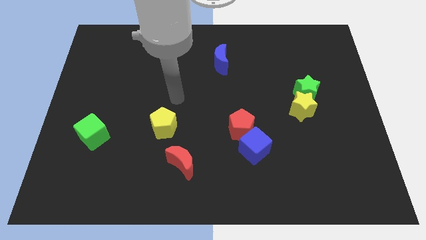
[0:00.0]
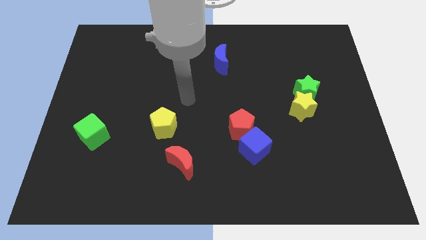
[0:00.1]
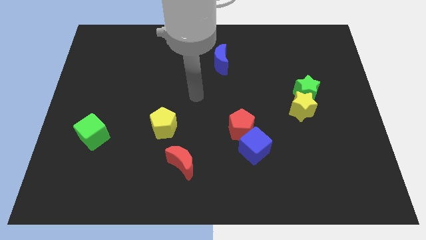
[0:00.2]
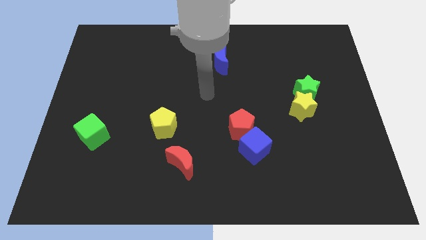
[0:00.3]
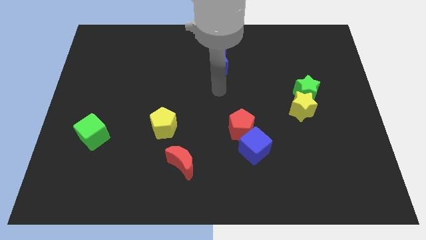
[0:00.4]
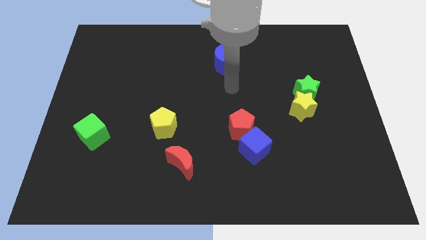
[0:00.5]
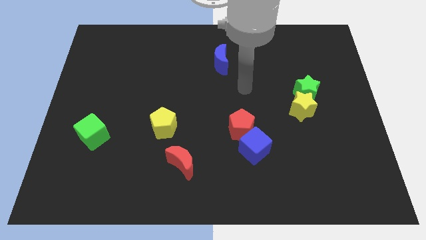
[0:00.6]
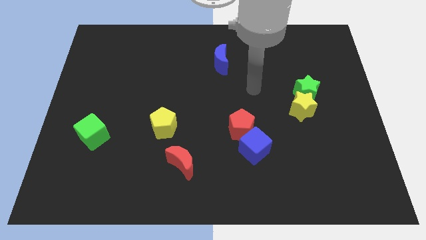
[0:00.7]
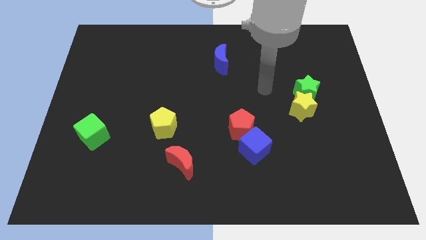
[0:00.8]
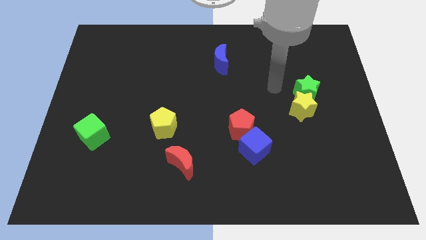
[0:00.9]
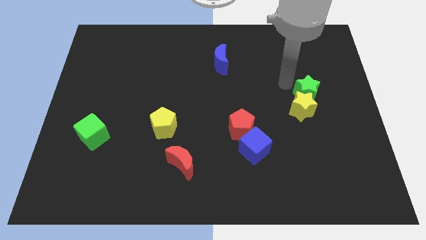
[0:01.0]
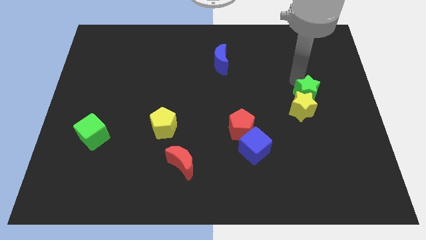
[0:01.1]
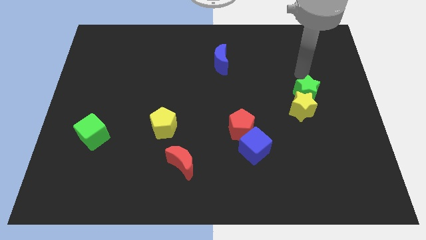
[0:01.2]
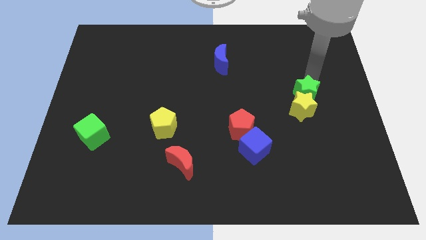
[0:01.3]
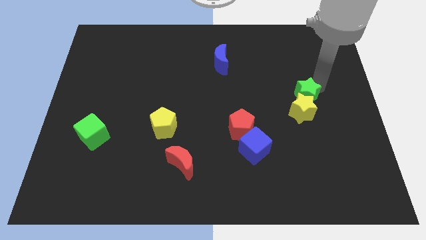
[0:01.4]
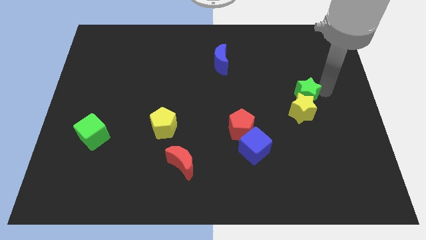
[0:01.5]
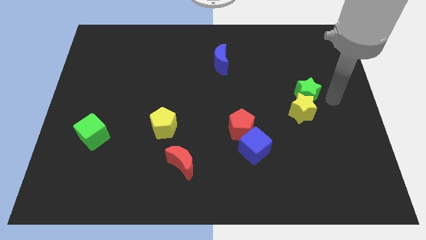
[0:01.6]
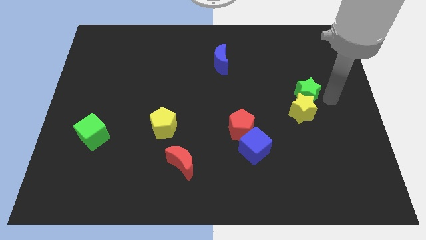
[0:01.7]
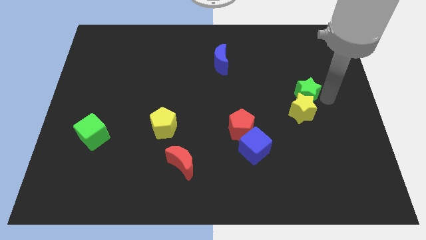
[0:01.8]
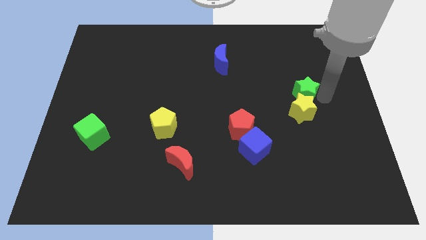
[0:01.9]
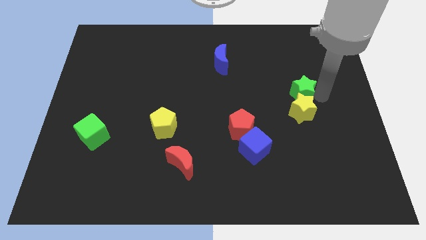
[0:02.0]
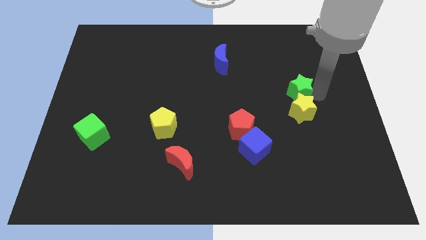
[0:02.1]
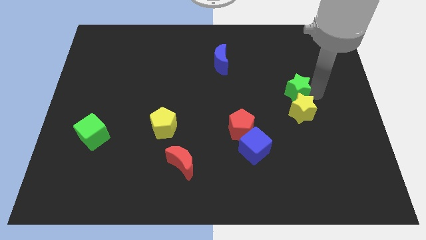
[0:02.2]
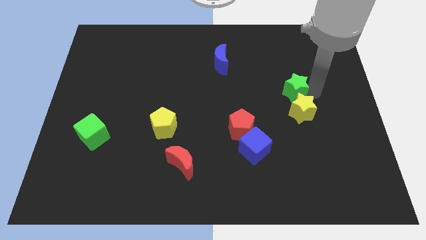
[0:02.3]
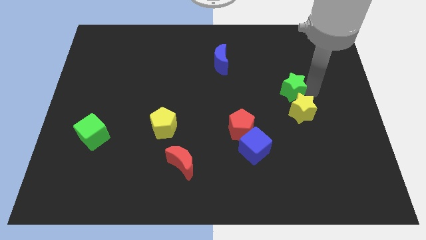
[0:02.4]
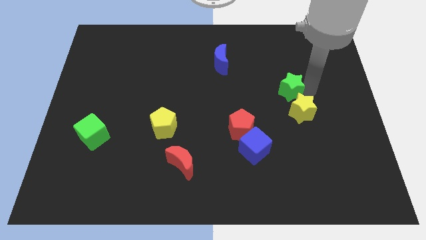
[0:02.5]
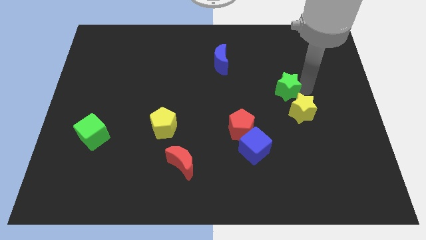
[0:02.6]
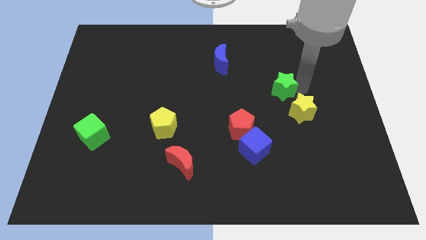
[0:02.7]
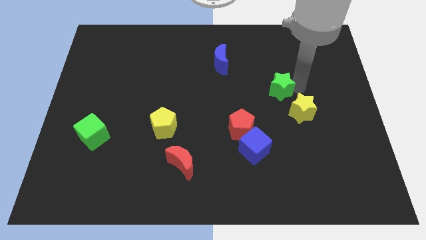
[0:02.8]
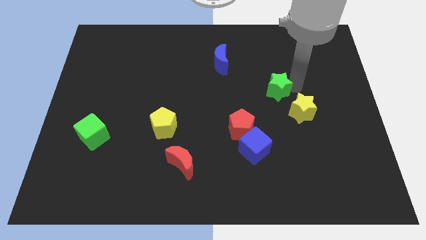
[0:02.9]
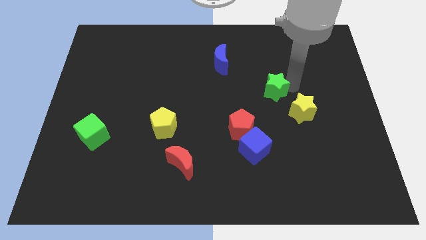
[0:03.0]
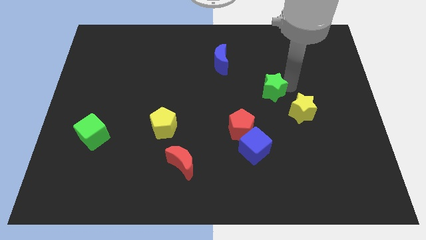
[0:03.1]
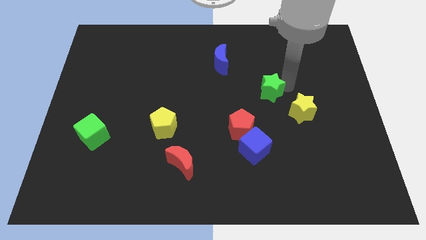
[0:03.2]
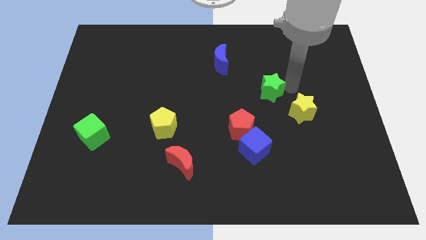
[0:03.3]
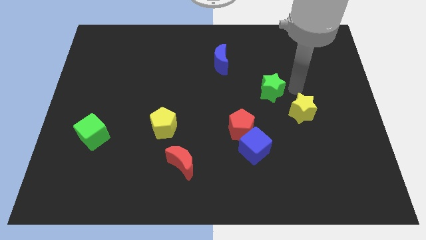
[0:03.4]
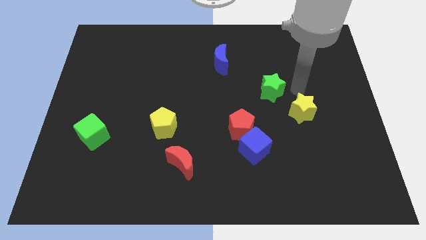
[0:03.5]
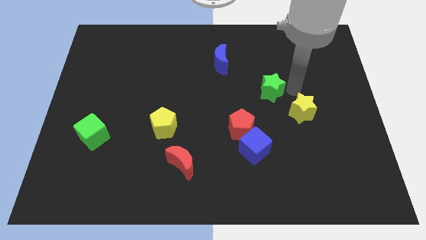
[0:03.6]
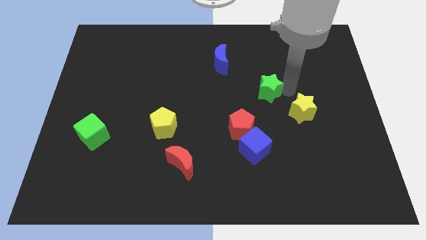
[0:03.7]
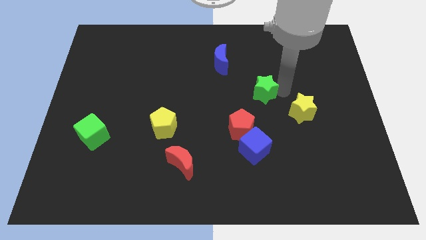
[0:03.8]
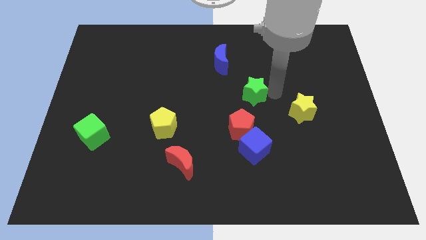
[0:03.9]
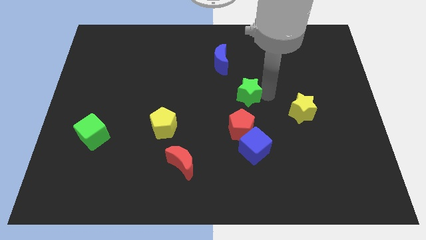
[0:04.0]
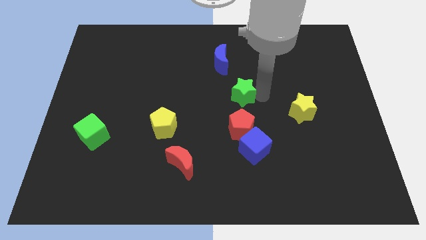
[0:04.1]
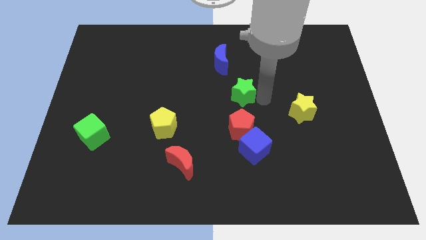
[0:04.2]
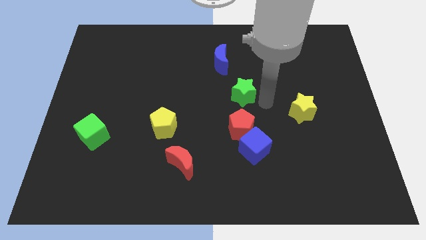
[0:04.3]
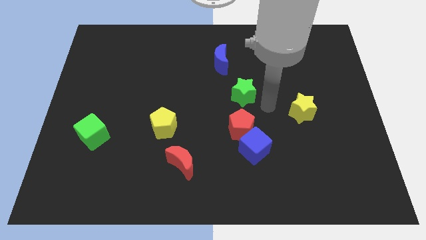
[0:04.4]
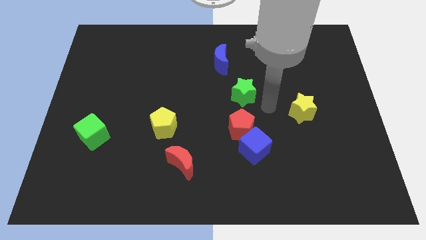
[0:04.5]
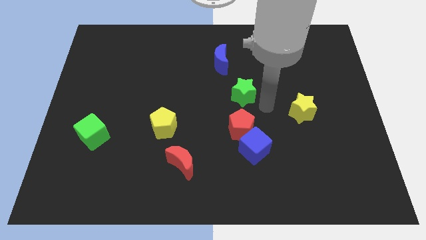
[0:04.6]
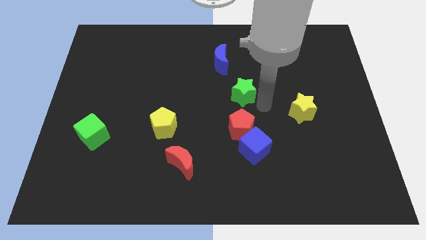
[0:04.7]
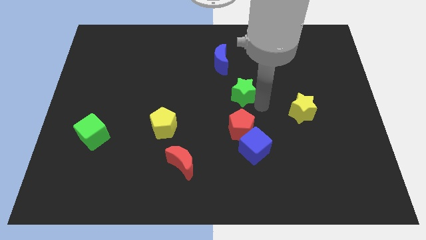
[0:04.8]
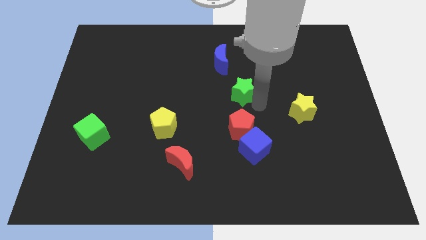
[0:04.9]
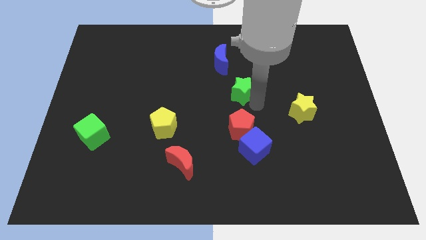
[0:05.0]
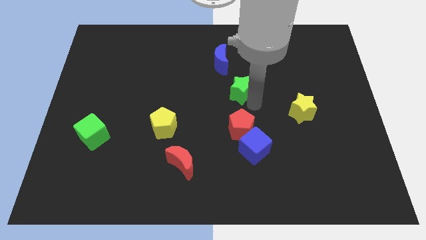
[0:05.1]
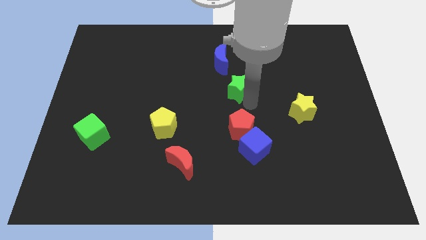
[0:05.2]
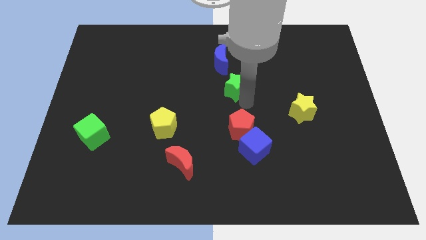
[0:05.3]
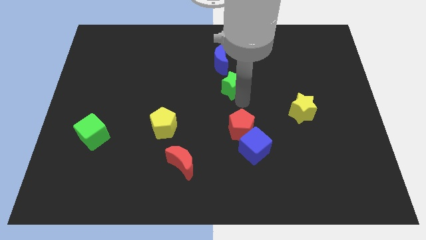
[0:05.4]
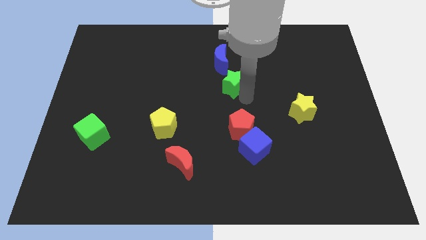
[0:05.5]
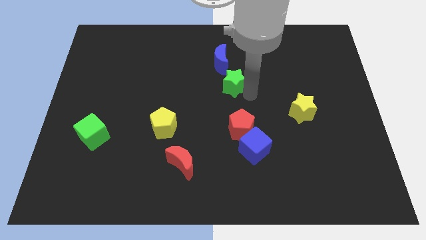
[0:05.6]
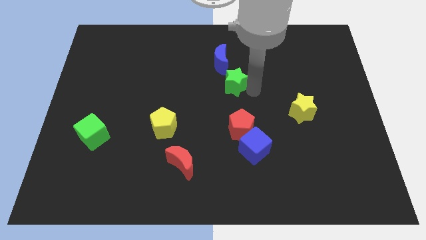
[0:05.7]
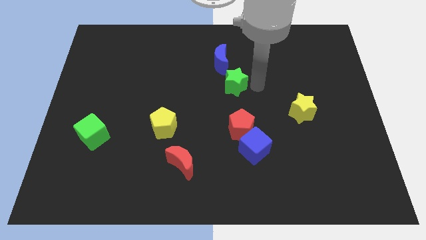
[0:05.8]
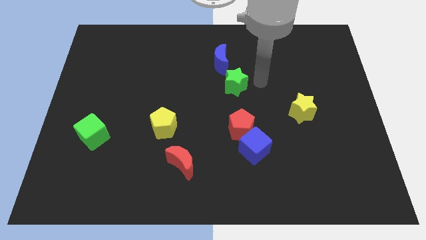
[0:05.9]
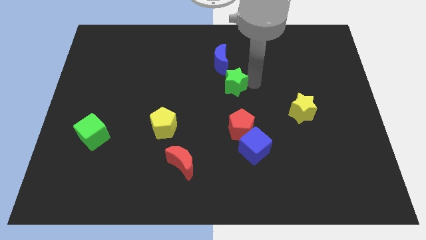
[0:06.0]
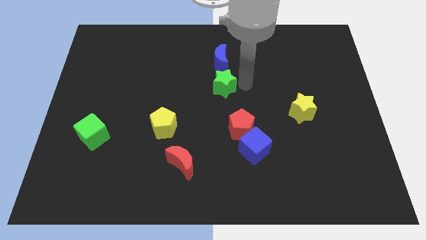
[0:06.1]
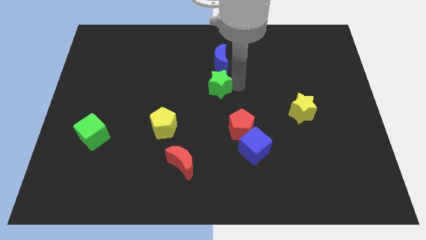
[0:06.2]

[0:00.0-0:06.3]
slide the green star to the left

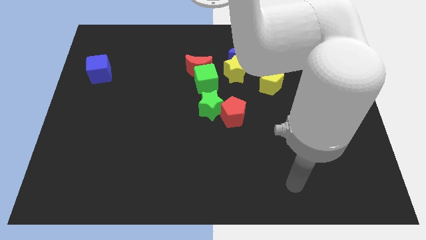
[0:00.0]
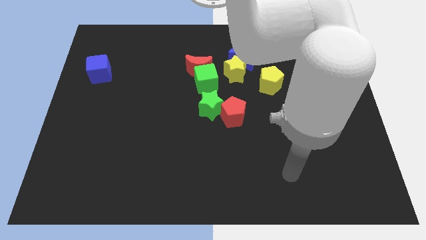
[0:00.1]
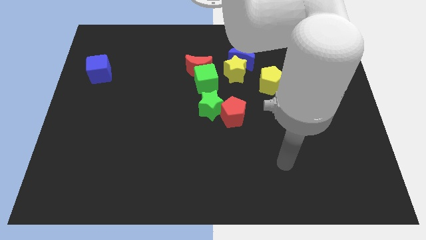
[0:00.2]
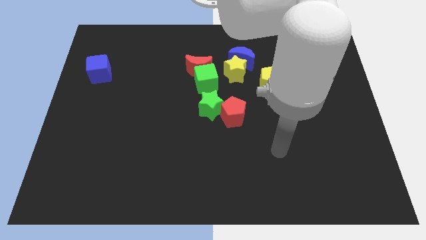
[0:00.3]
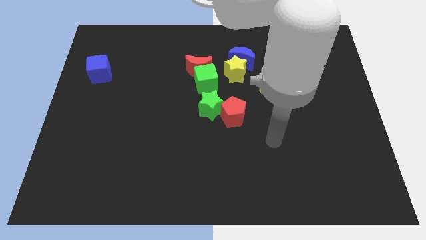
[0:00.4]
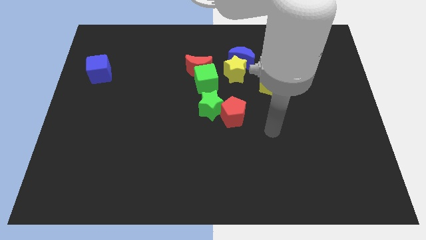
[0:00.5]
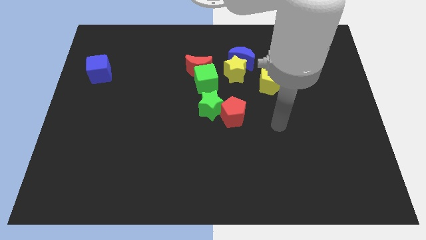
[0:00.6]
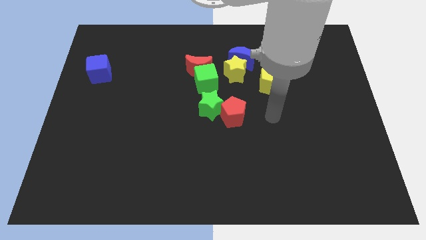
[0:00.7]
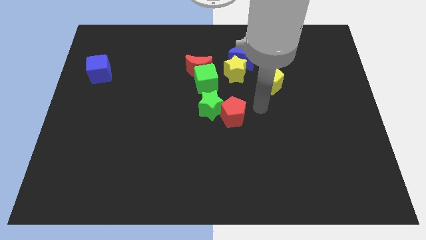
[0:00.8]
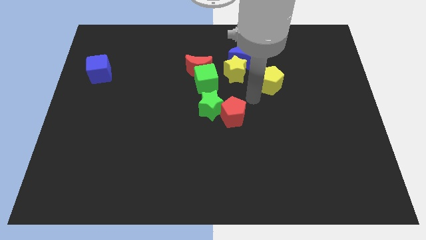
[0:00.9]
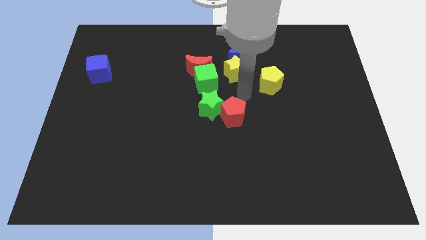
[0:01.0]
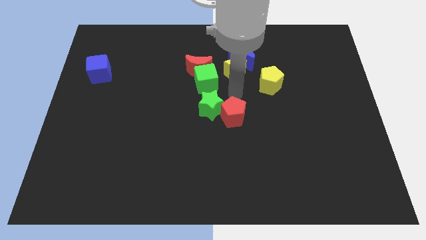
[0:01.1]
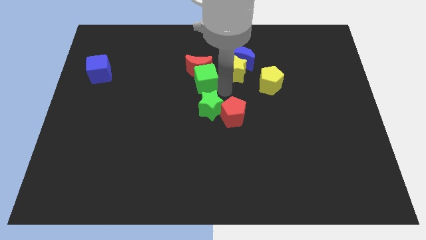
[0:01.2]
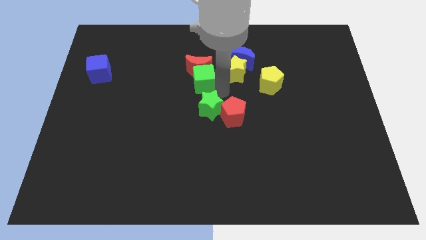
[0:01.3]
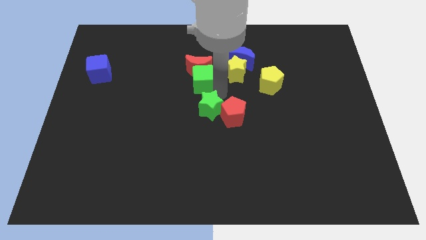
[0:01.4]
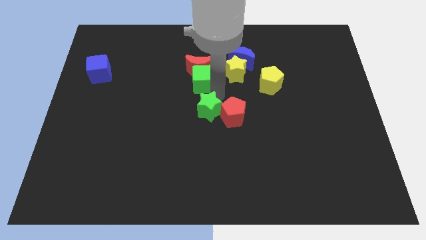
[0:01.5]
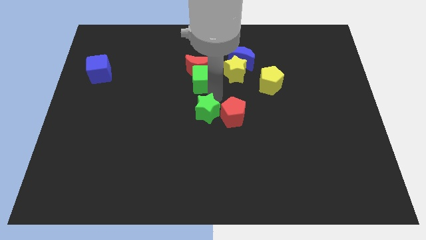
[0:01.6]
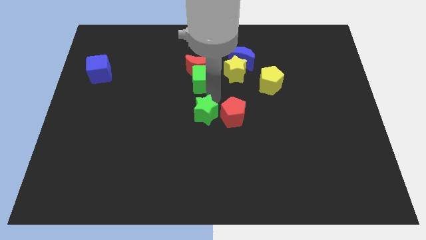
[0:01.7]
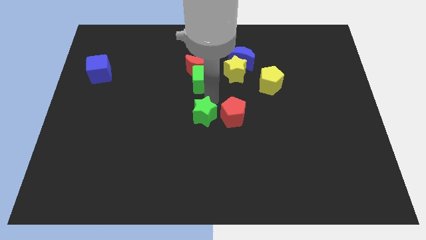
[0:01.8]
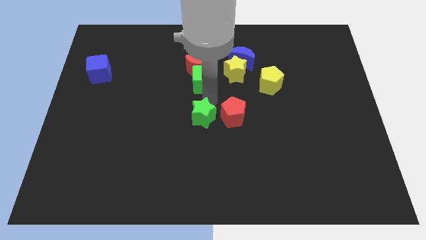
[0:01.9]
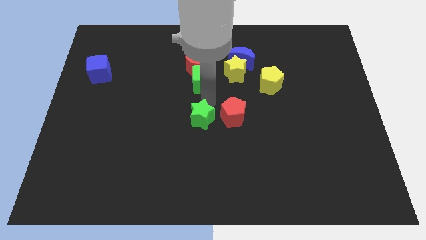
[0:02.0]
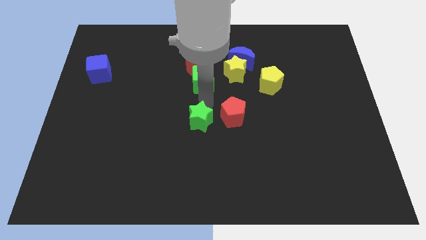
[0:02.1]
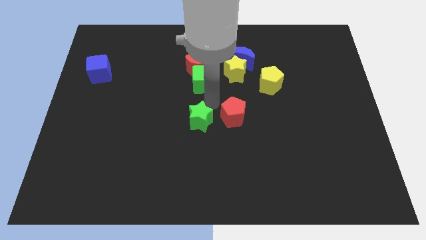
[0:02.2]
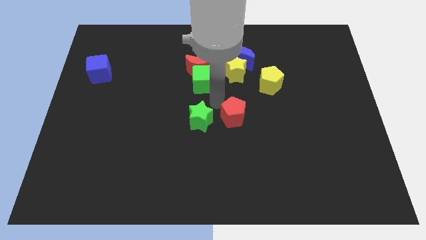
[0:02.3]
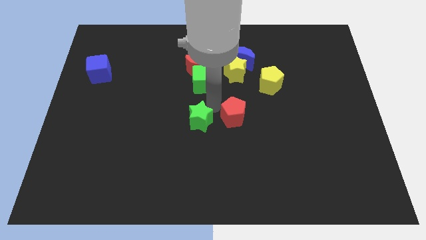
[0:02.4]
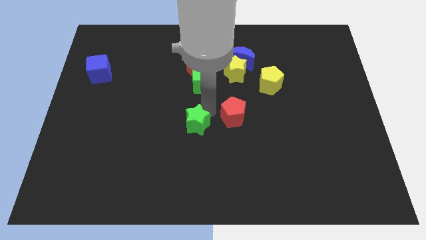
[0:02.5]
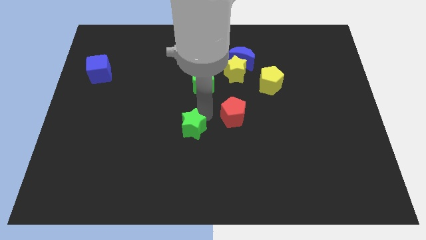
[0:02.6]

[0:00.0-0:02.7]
push the green star downwards and to the left somewhat
